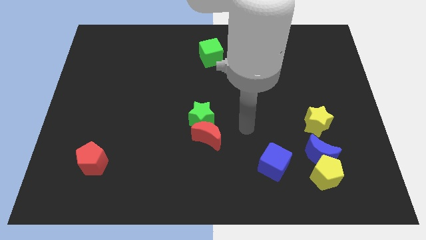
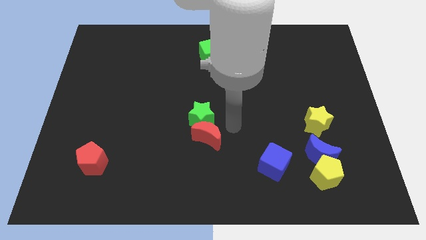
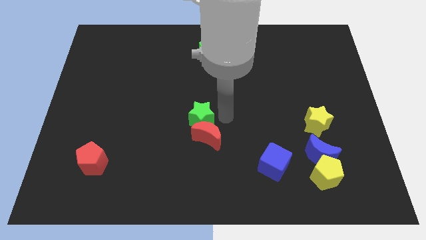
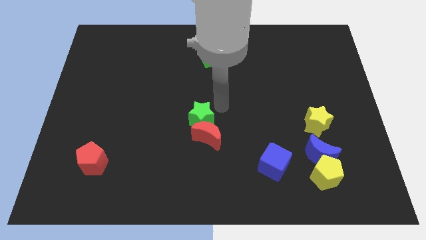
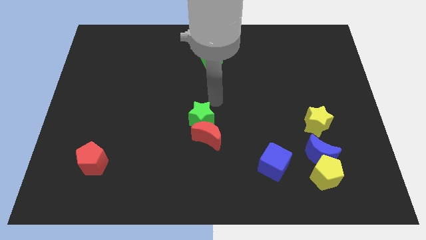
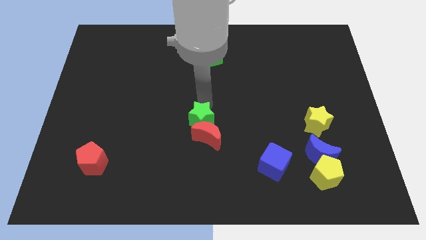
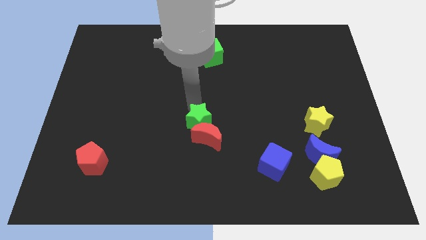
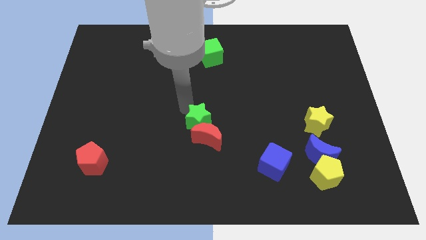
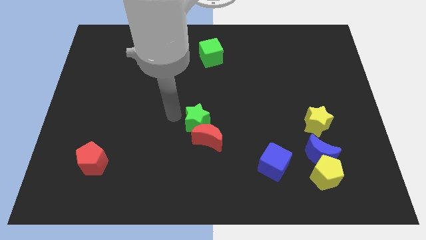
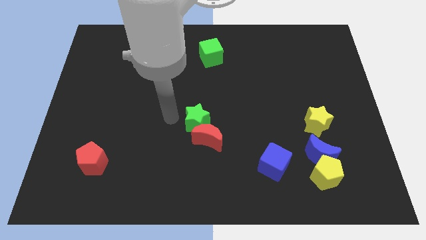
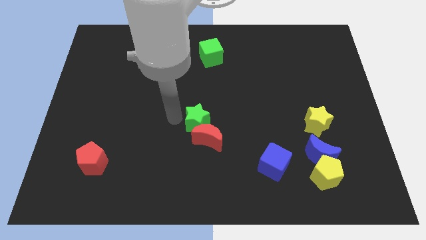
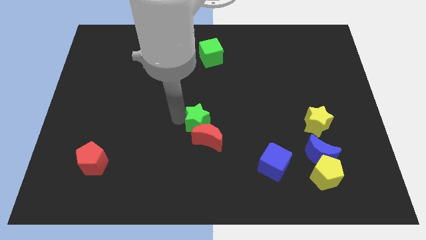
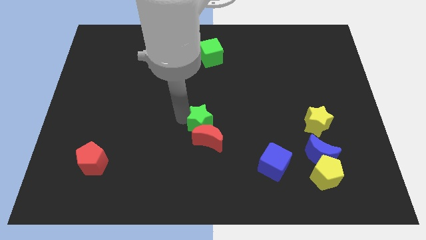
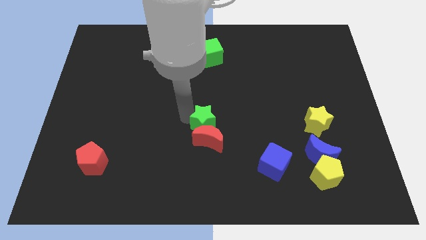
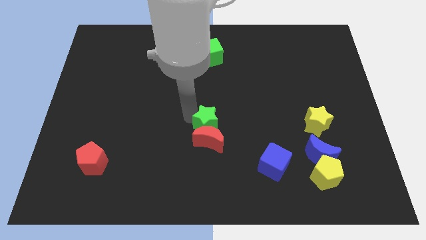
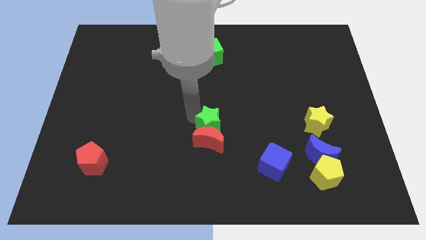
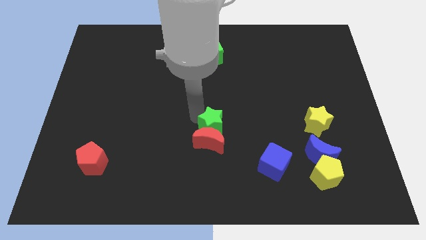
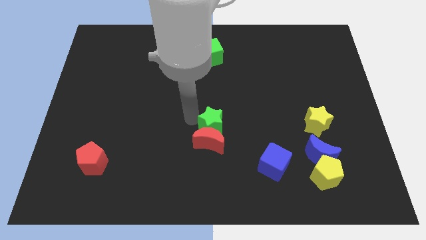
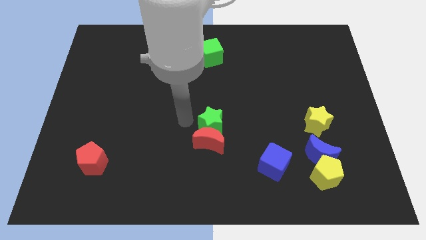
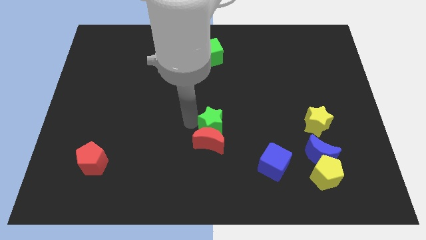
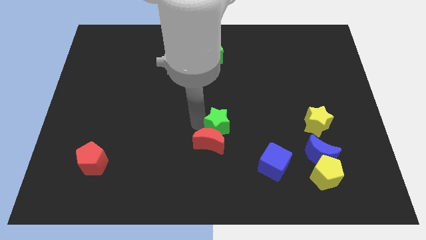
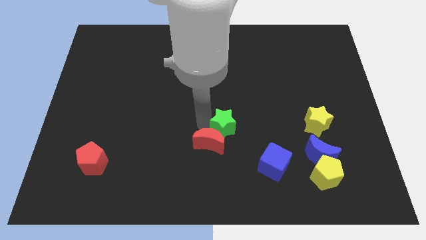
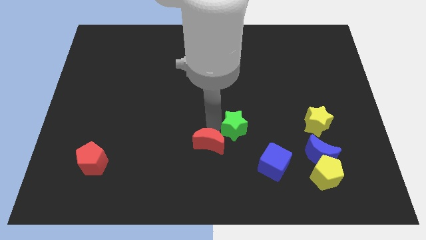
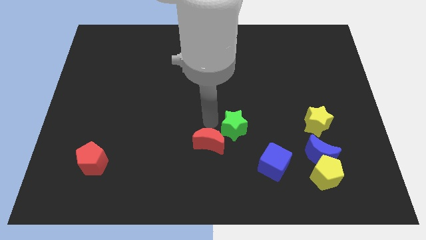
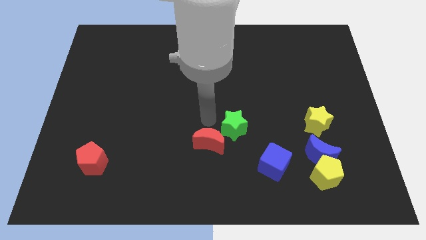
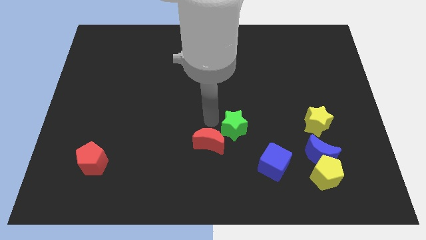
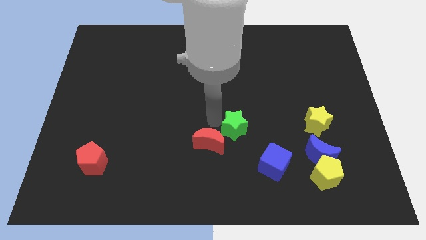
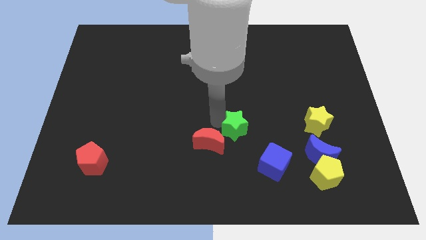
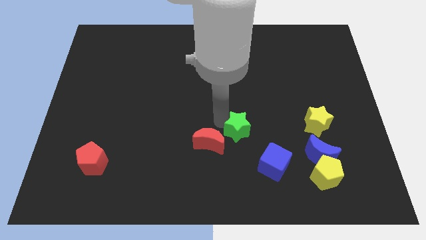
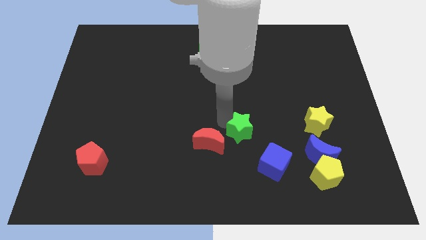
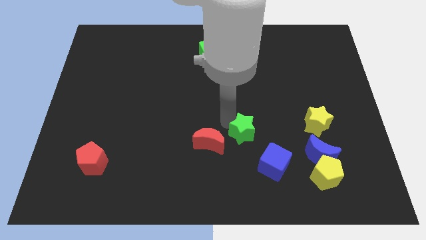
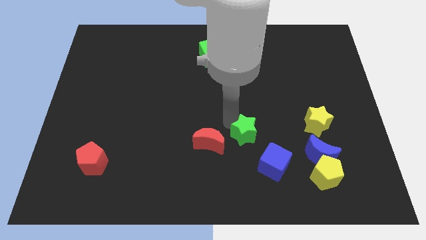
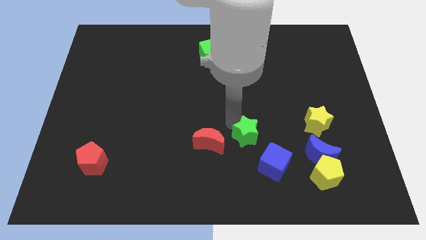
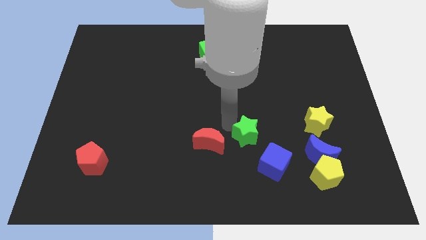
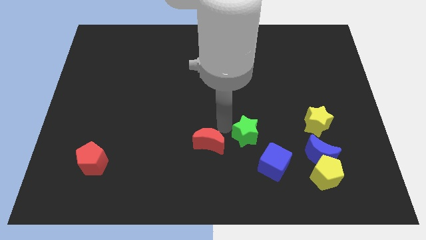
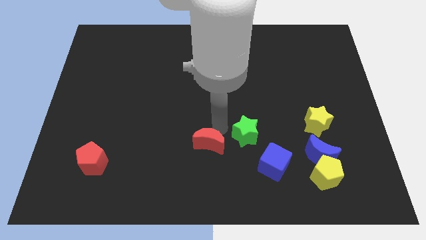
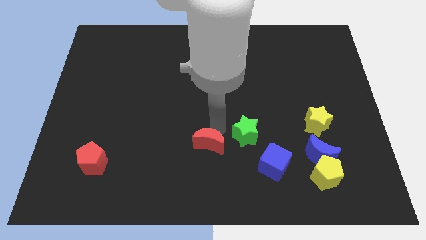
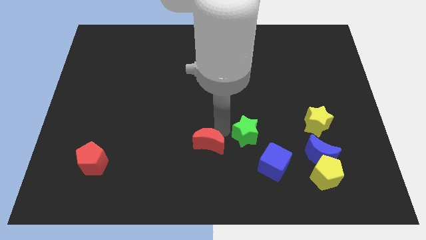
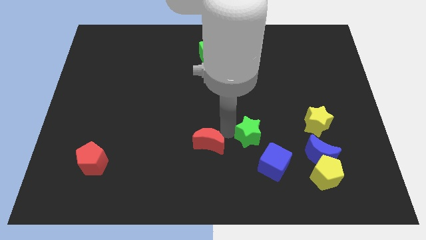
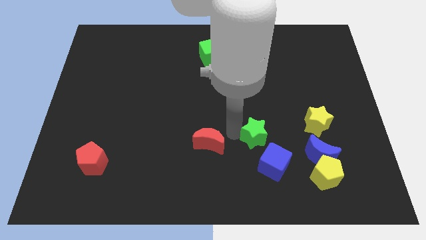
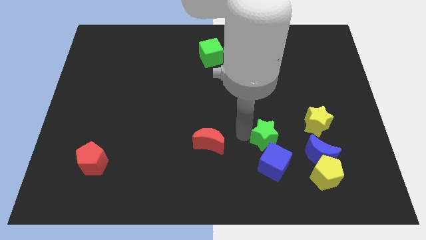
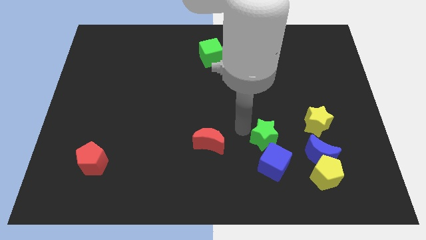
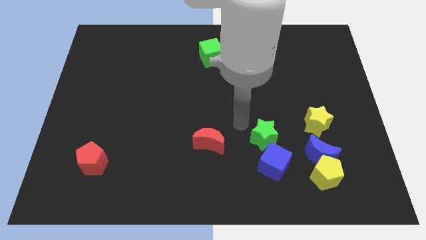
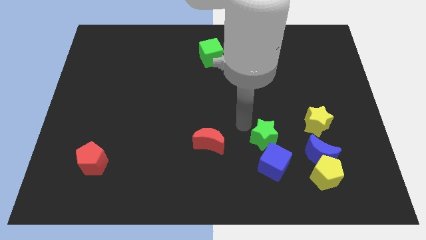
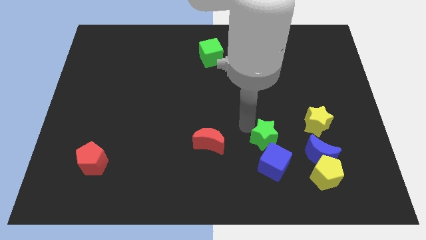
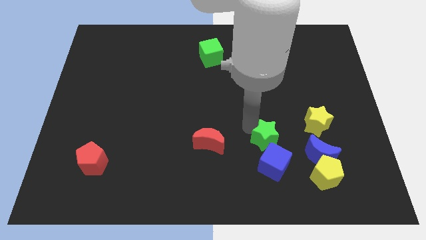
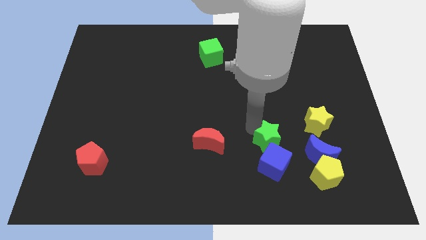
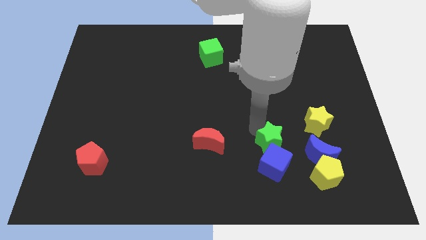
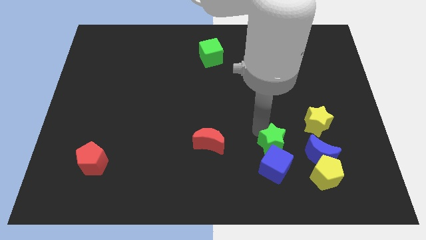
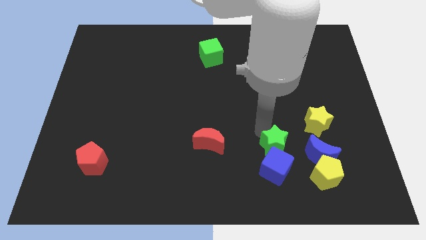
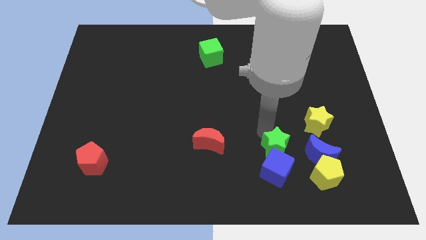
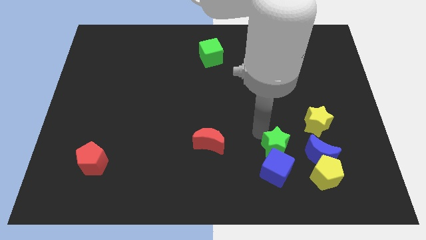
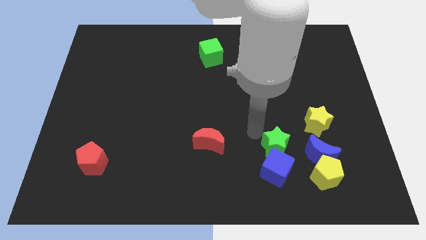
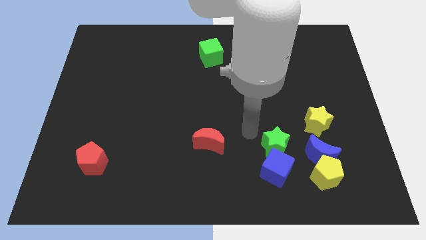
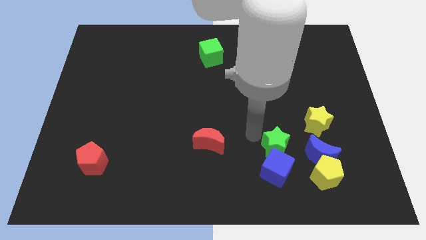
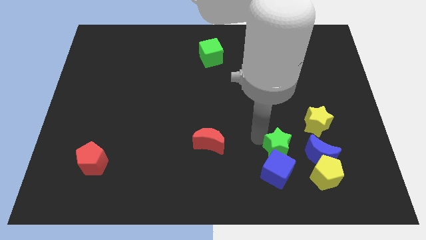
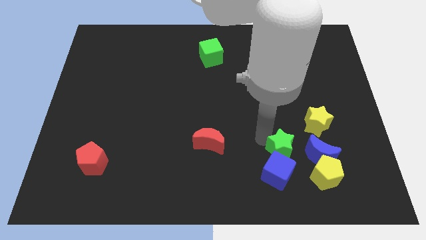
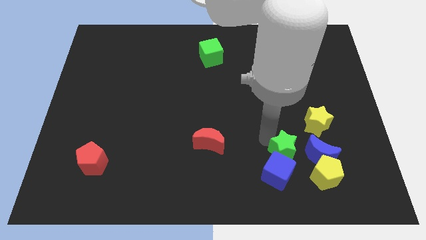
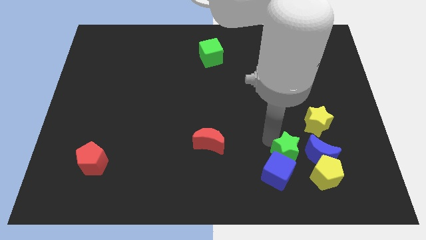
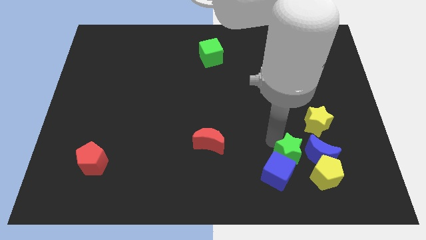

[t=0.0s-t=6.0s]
push the green star to the bottom left of the blue moon

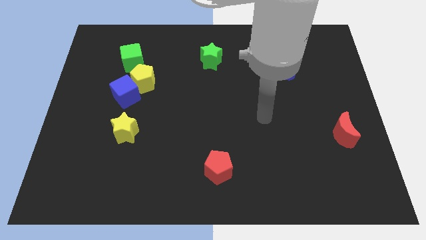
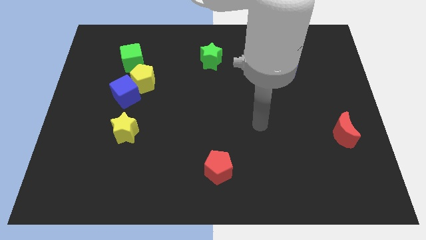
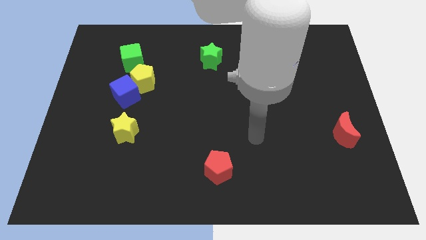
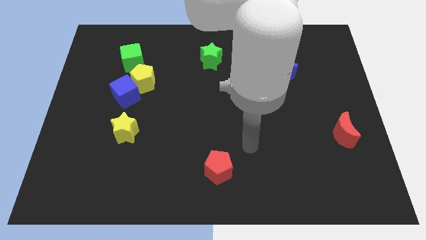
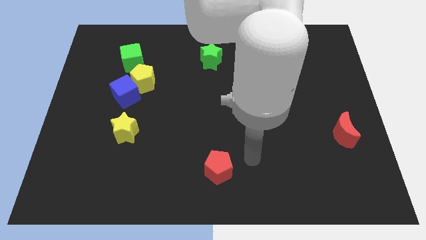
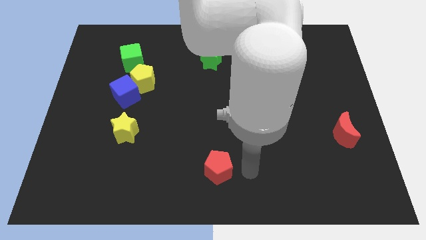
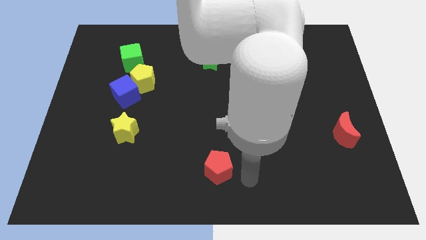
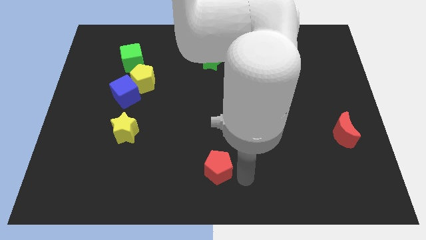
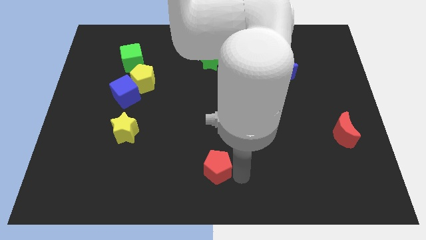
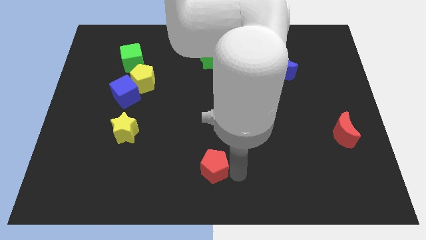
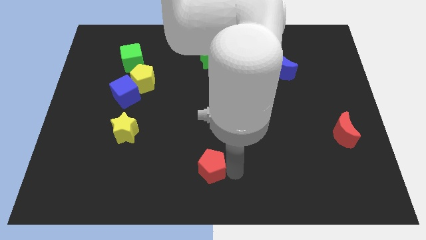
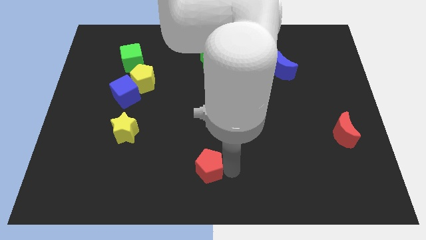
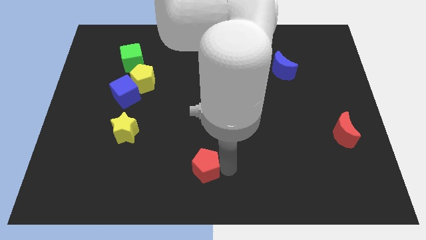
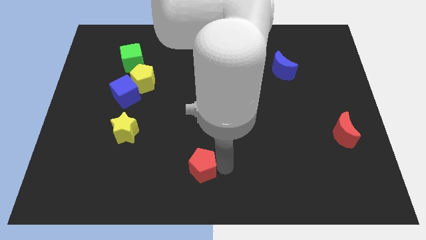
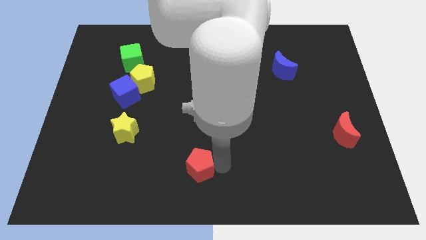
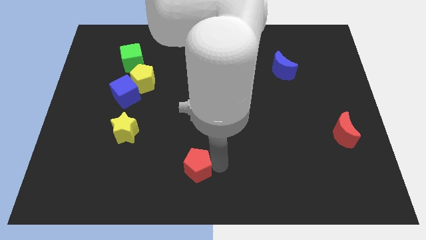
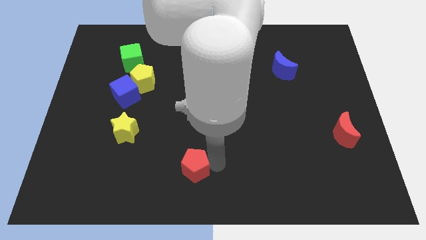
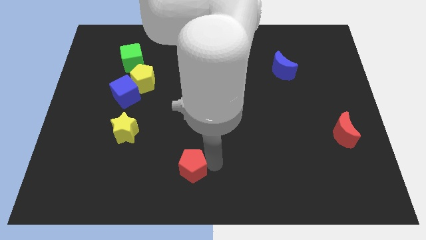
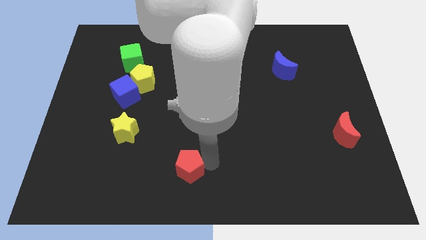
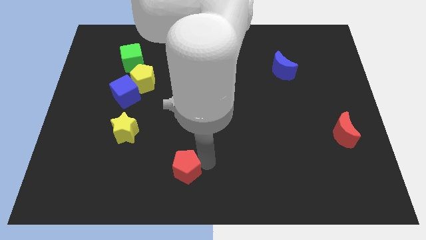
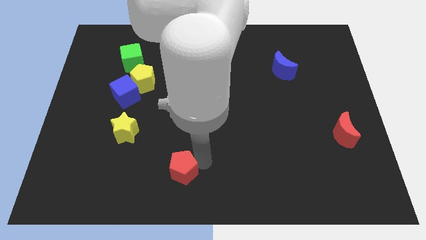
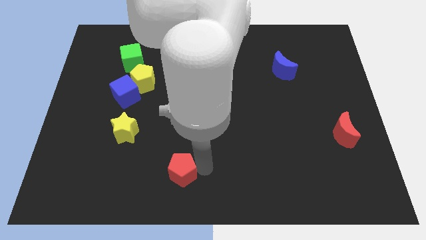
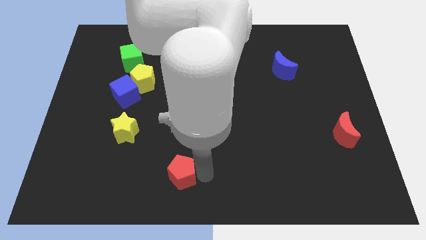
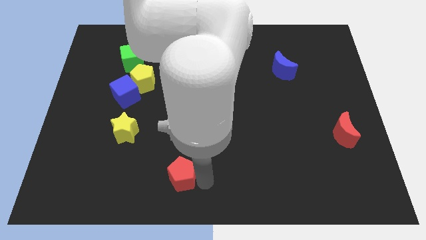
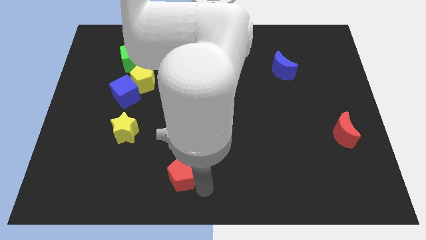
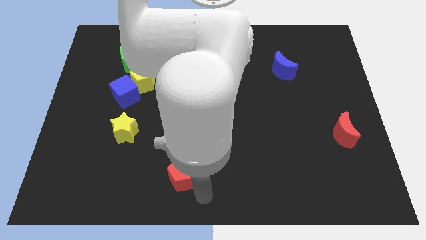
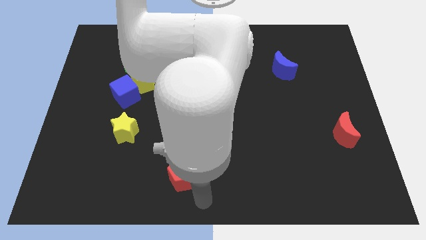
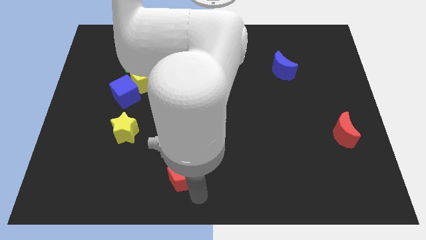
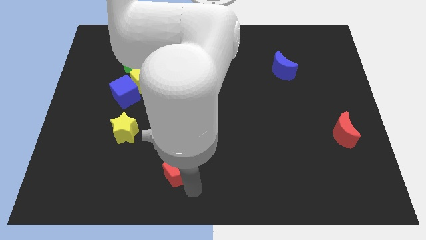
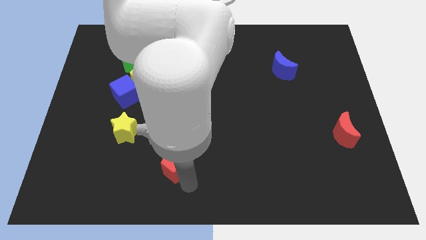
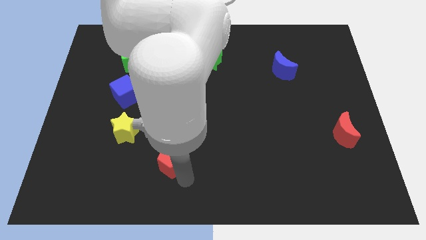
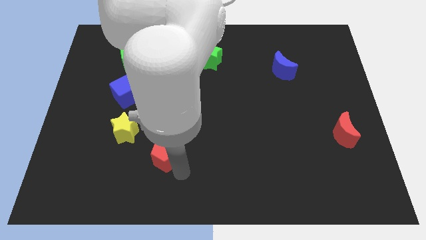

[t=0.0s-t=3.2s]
push the red pentagon diagonally down and to the right of the yellow star
